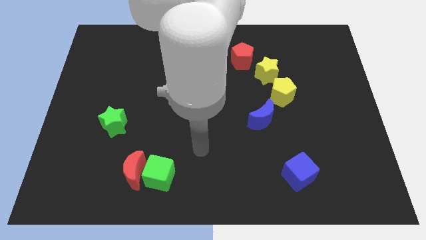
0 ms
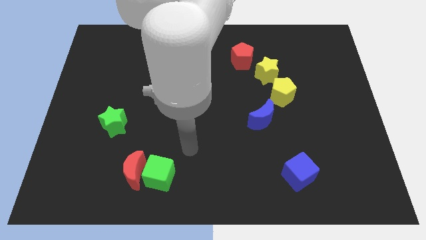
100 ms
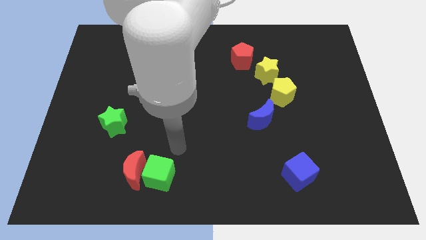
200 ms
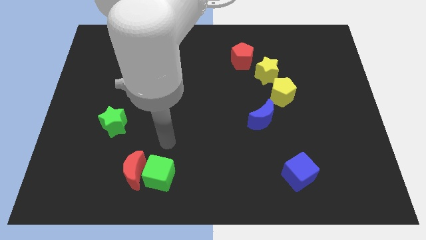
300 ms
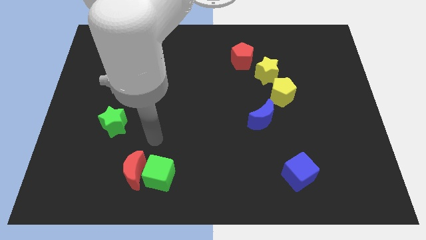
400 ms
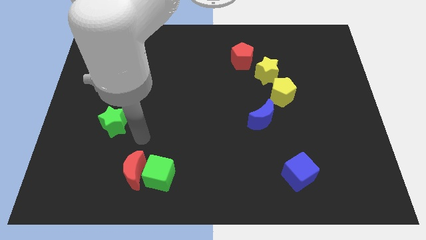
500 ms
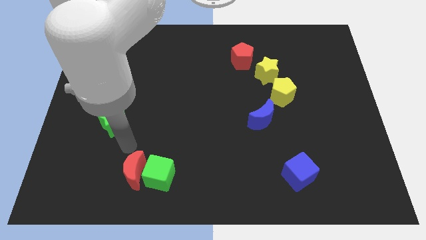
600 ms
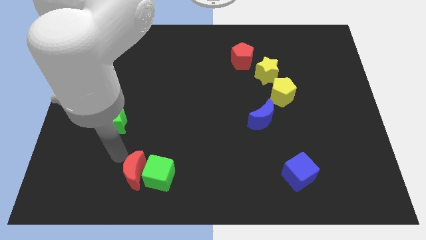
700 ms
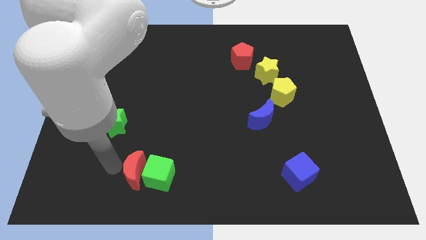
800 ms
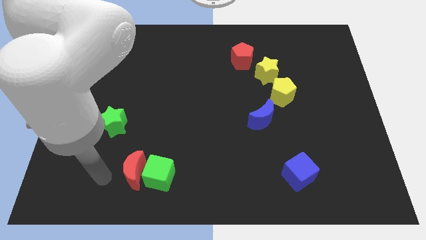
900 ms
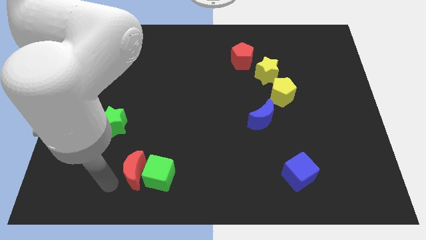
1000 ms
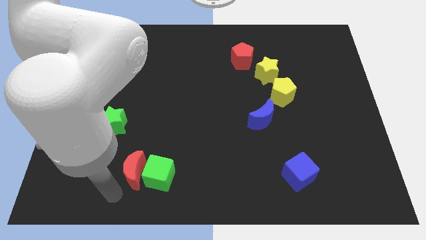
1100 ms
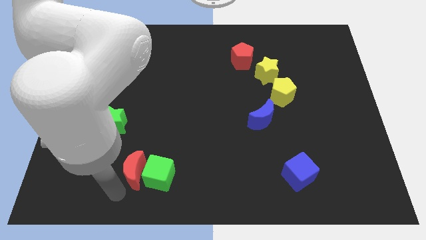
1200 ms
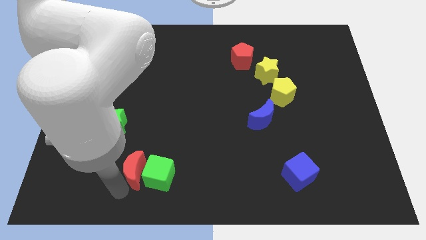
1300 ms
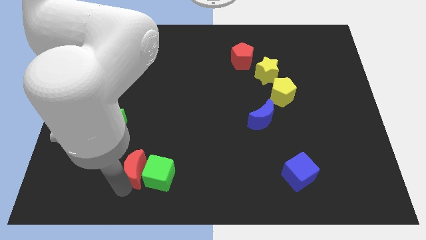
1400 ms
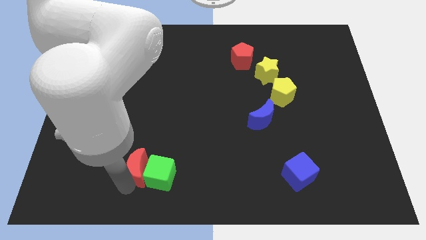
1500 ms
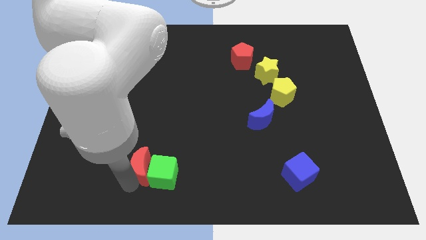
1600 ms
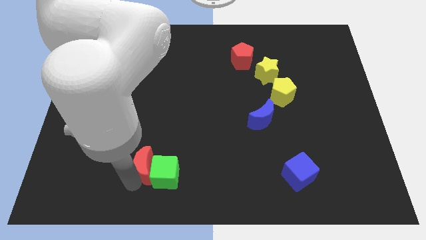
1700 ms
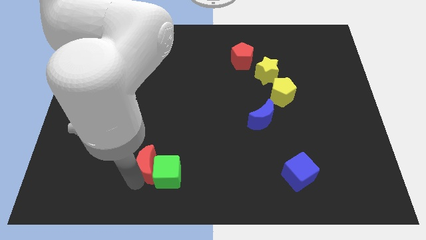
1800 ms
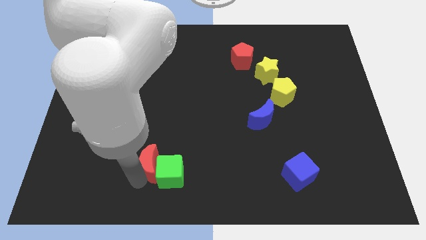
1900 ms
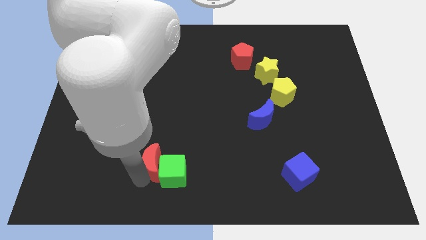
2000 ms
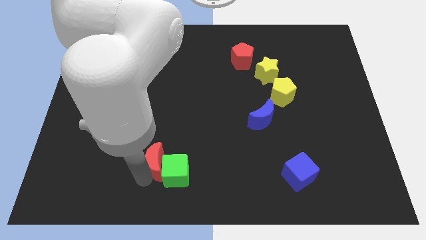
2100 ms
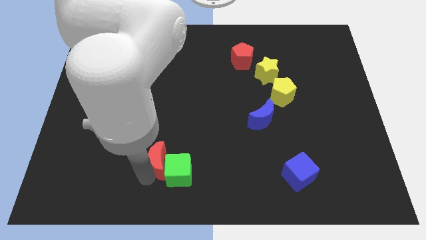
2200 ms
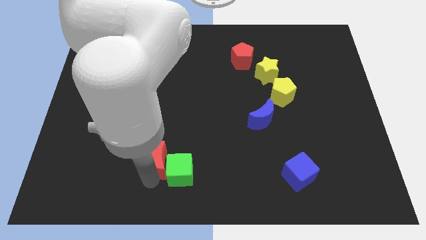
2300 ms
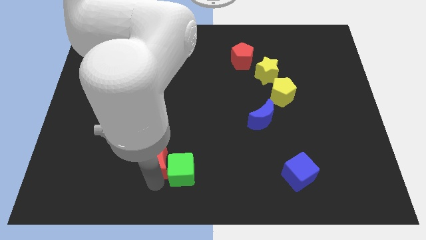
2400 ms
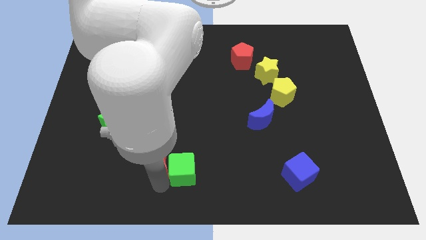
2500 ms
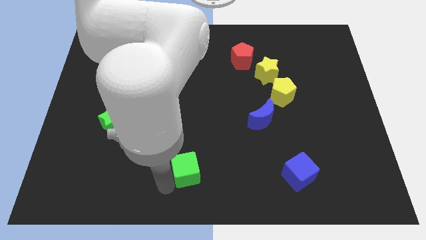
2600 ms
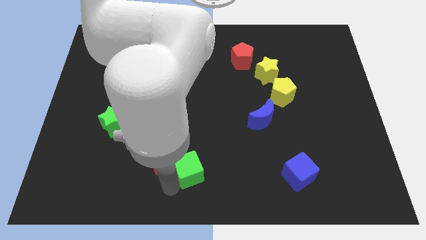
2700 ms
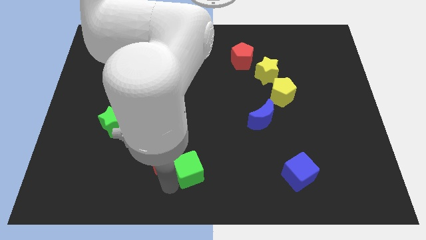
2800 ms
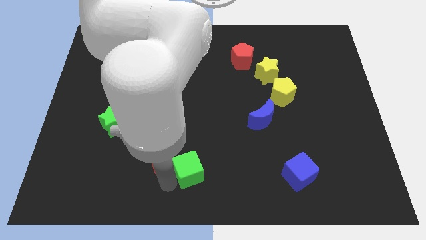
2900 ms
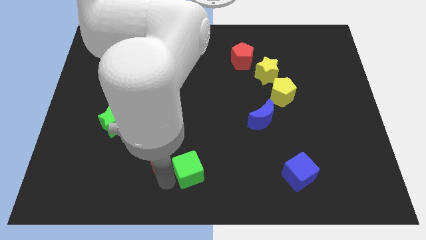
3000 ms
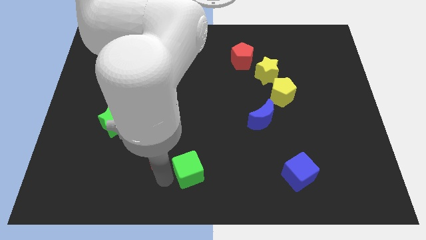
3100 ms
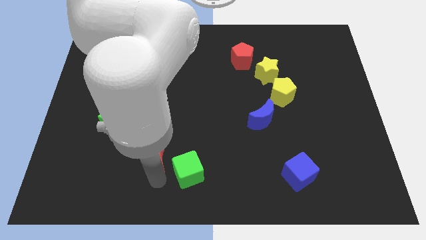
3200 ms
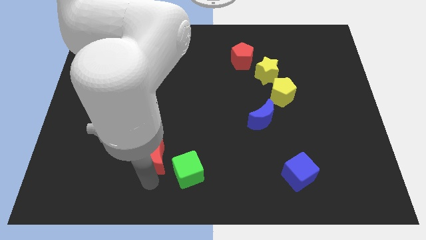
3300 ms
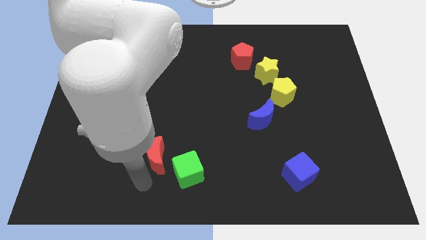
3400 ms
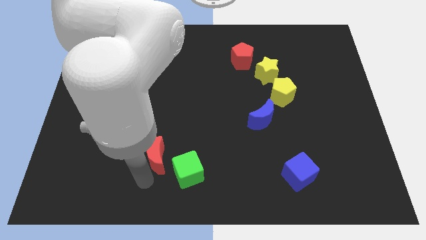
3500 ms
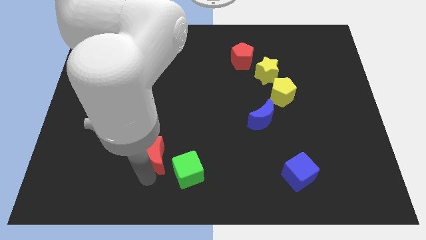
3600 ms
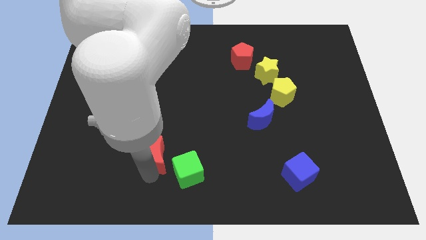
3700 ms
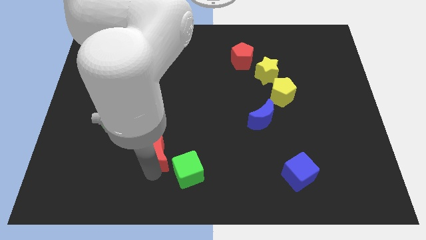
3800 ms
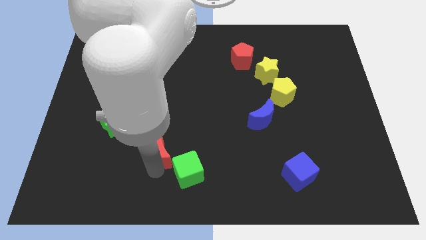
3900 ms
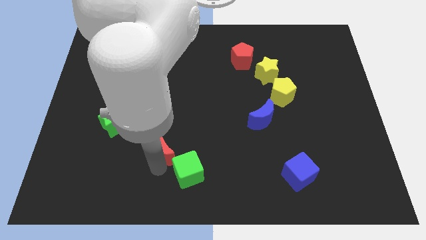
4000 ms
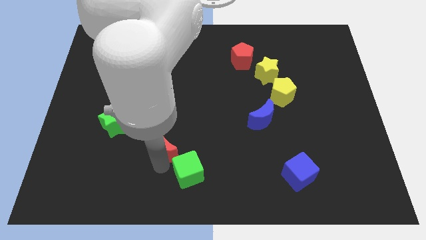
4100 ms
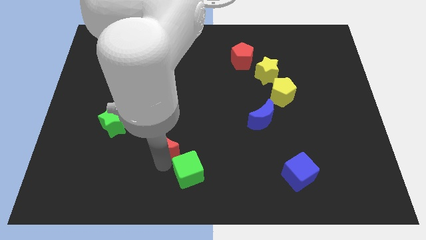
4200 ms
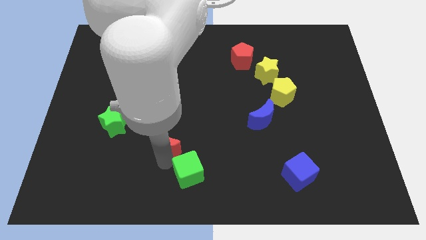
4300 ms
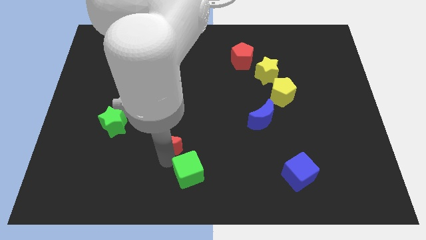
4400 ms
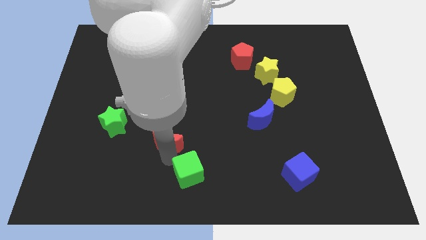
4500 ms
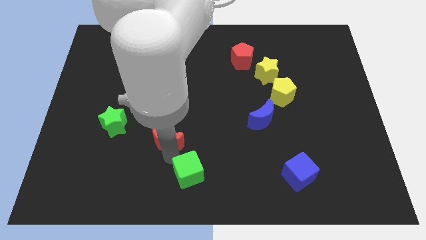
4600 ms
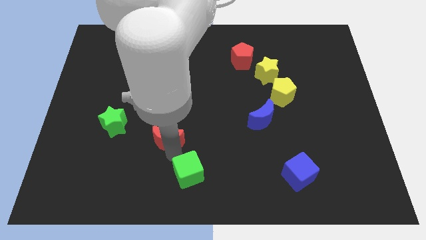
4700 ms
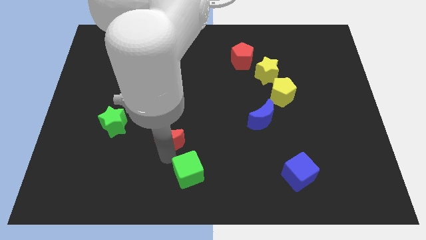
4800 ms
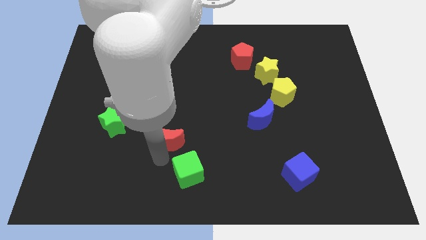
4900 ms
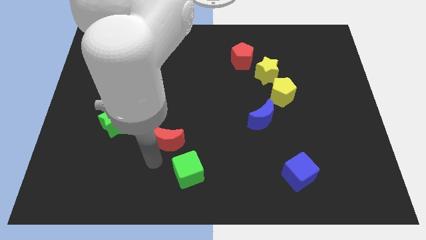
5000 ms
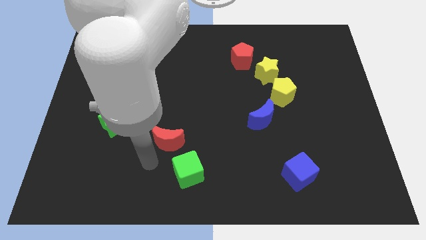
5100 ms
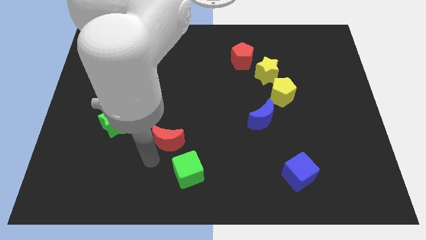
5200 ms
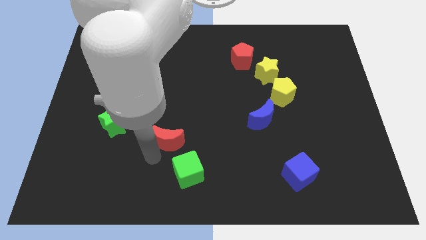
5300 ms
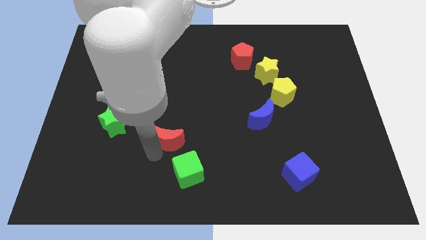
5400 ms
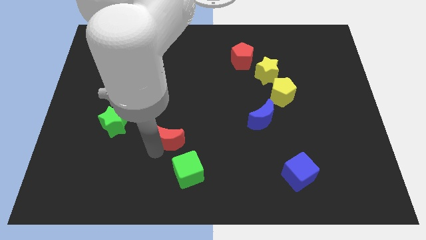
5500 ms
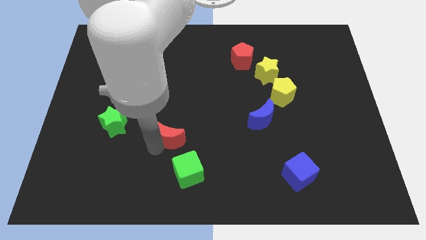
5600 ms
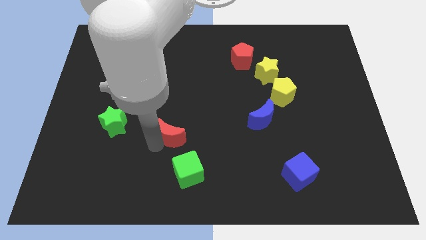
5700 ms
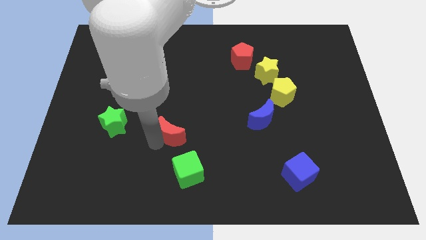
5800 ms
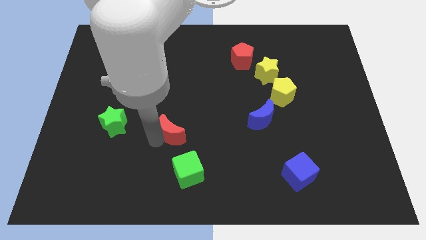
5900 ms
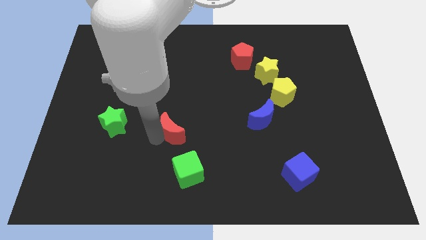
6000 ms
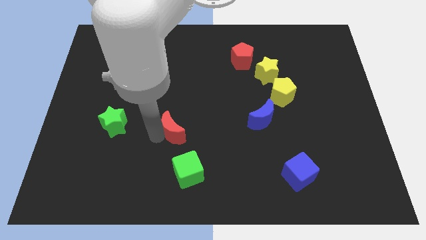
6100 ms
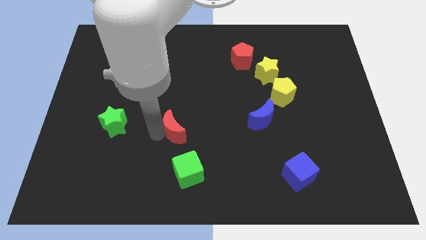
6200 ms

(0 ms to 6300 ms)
push the red moon to the center
